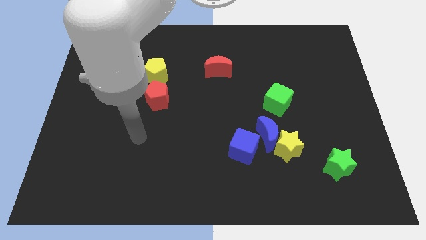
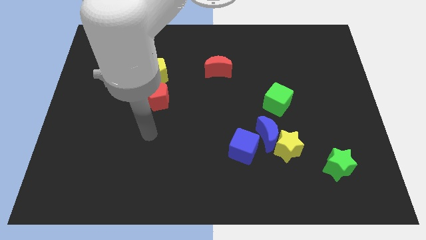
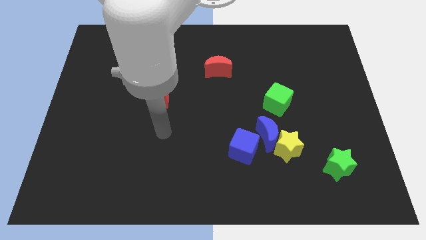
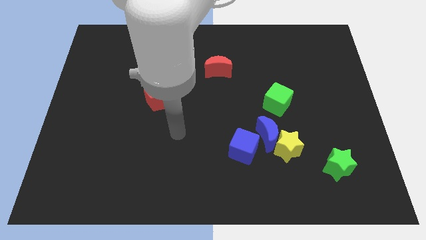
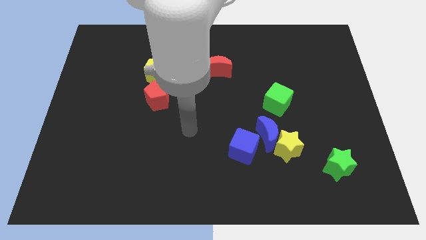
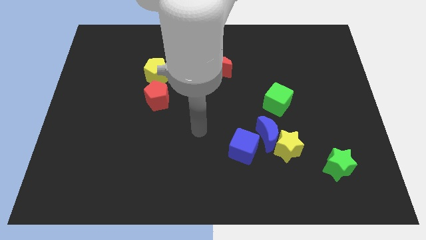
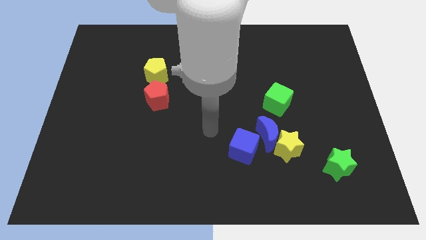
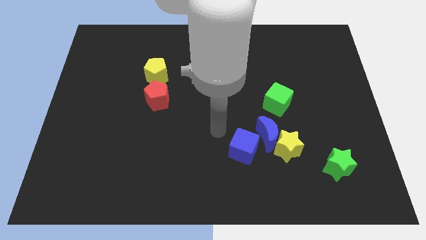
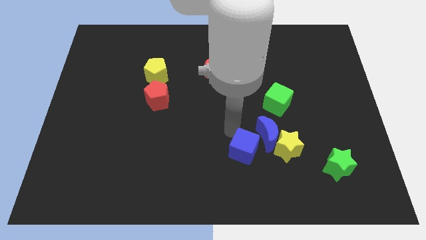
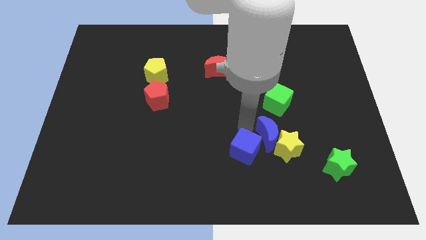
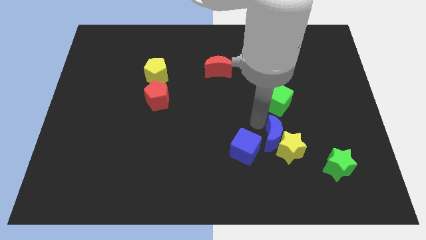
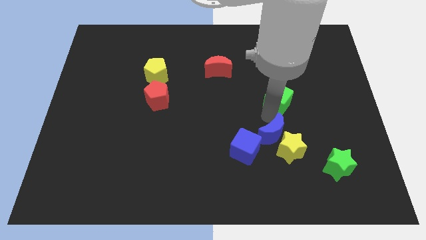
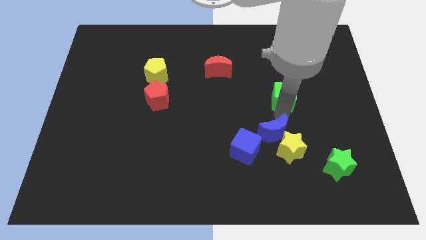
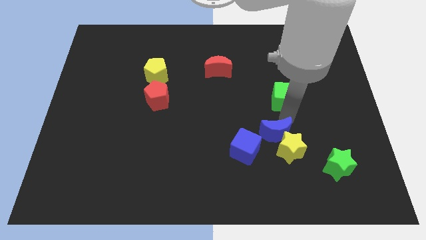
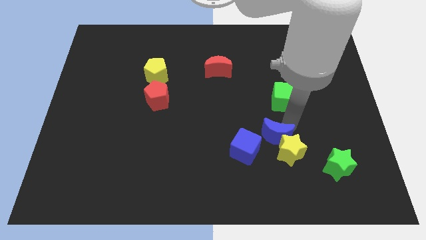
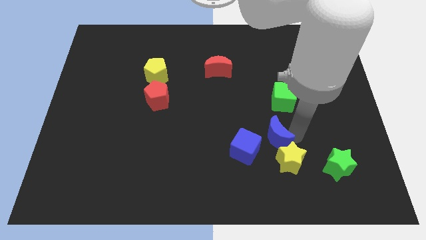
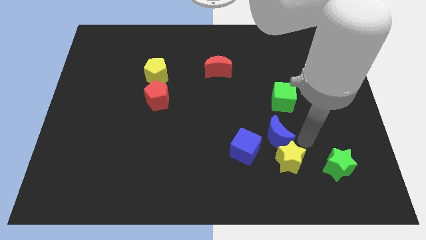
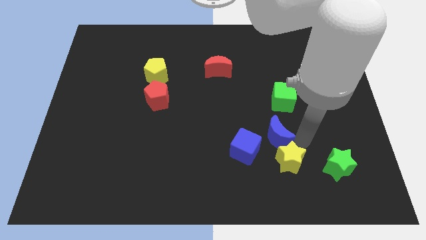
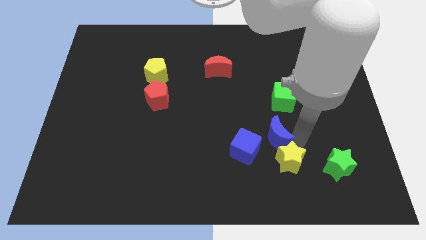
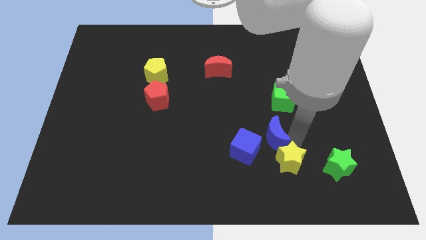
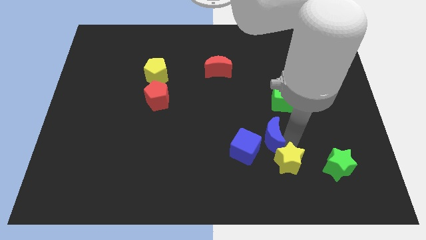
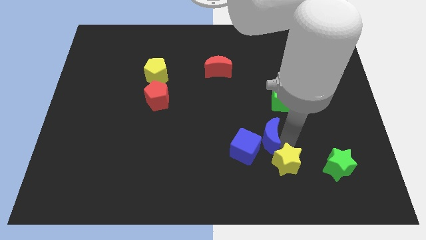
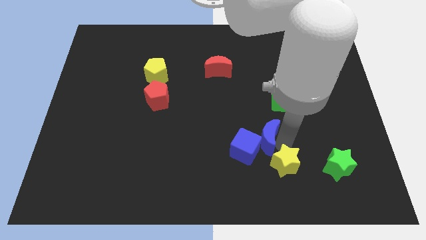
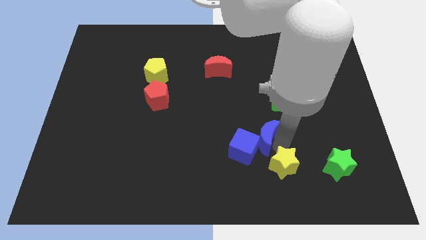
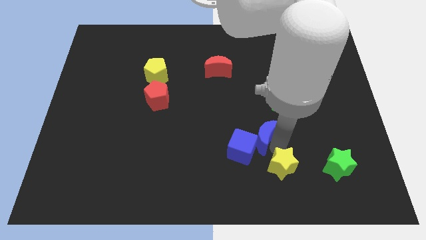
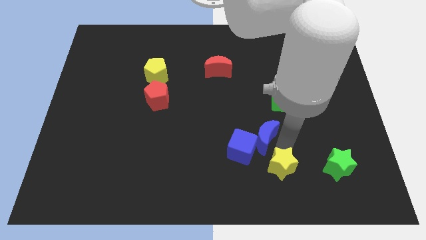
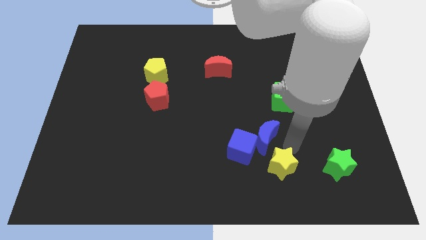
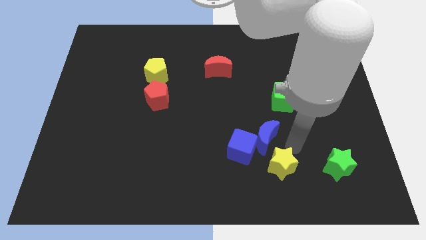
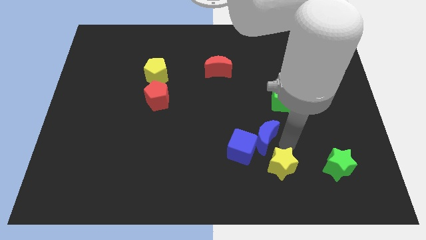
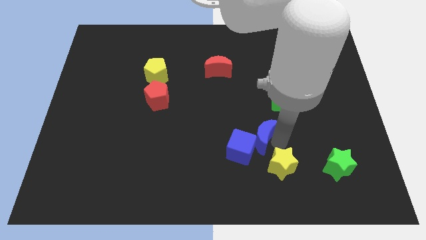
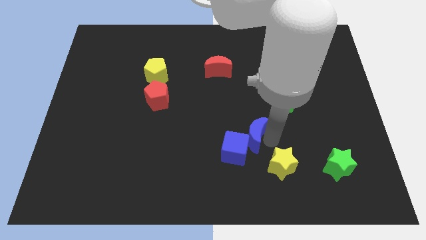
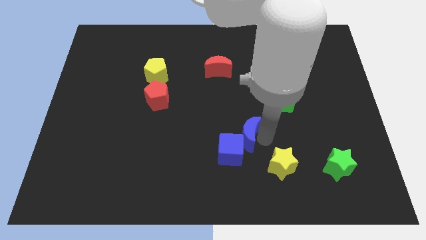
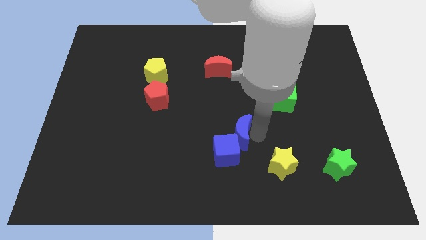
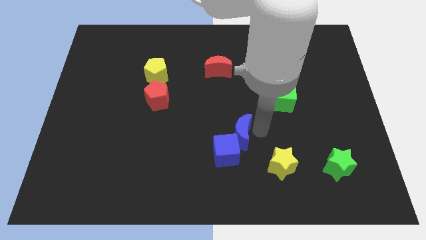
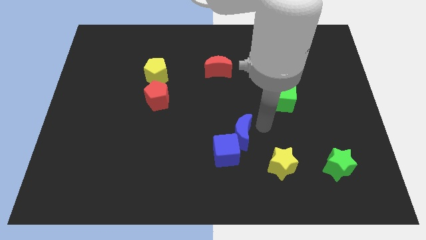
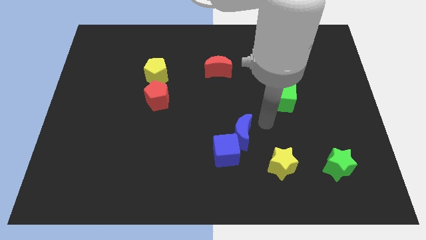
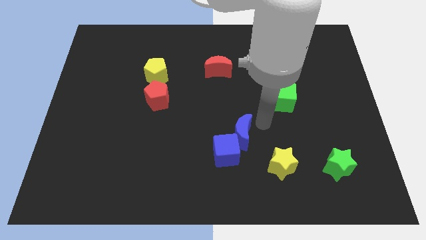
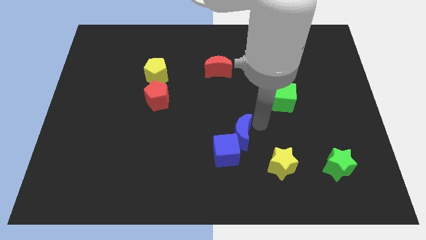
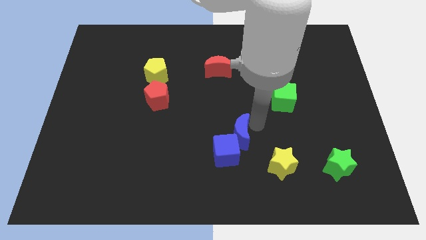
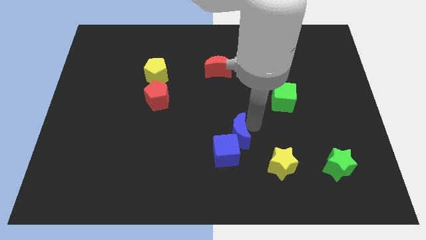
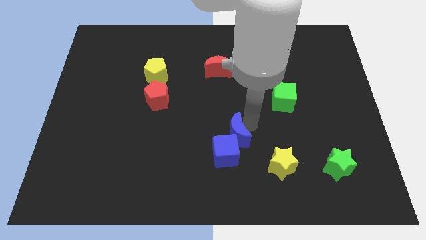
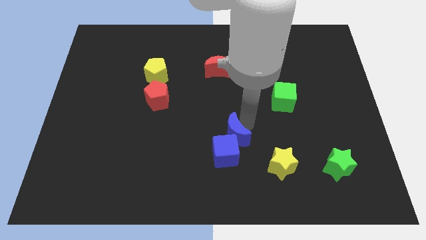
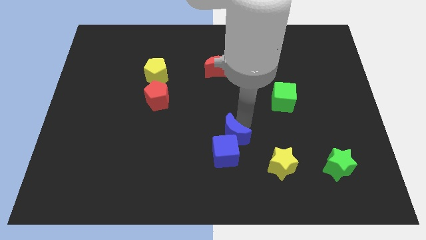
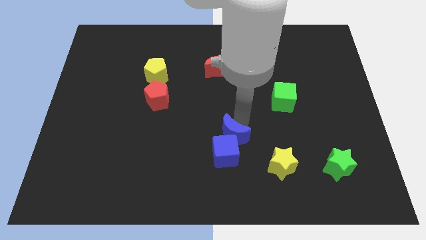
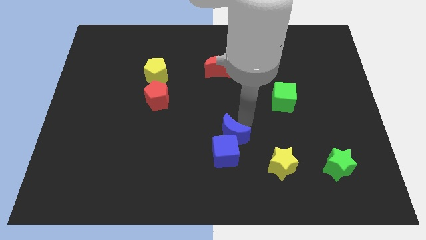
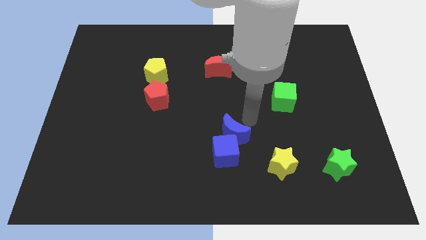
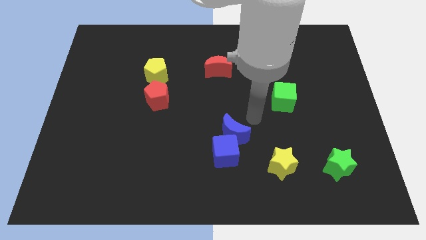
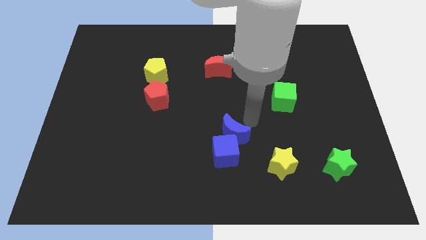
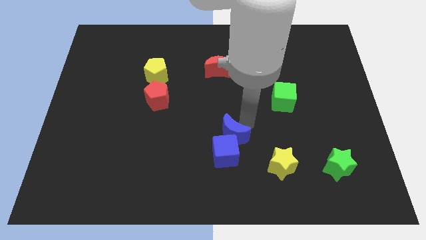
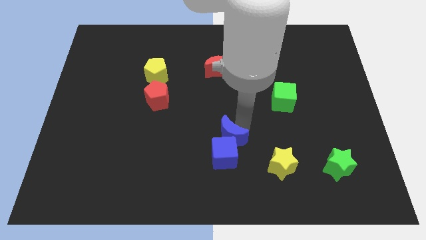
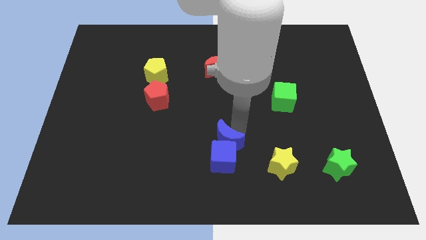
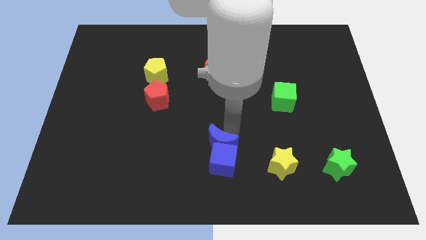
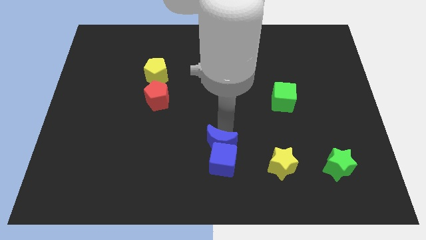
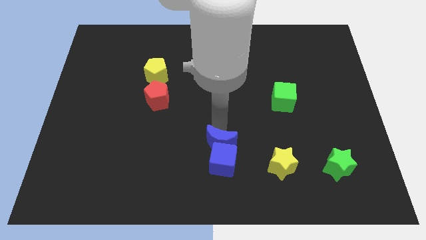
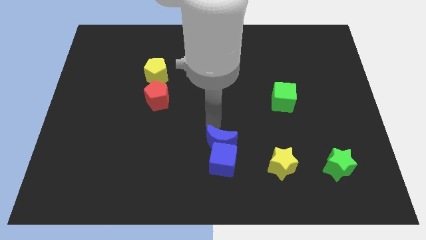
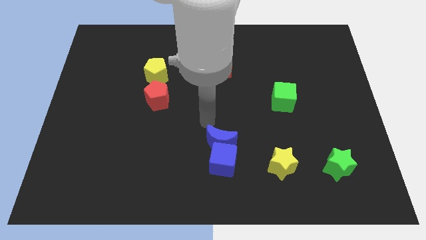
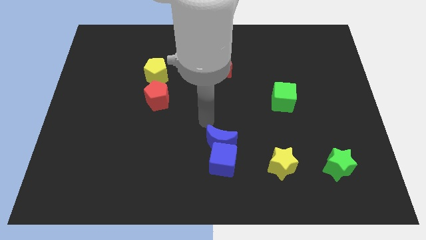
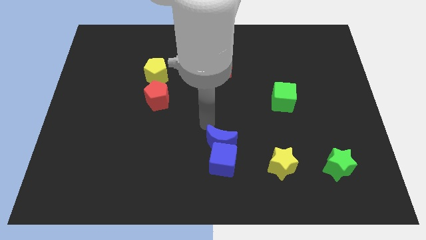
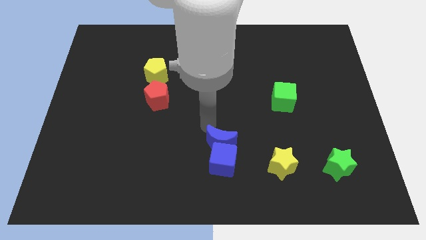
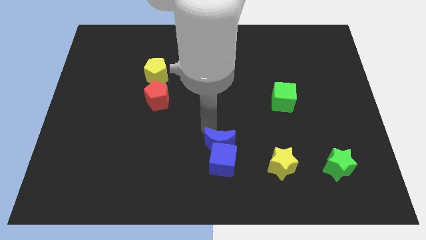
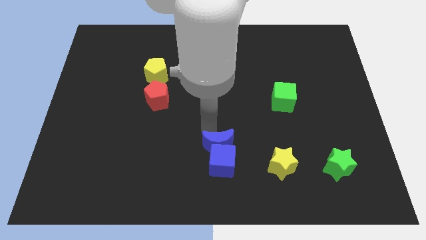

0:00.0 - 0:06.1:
separate the blue moon from the yellow star, blue cube, and green cube

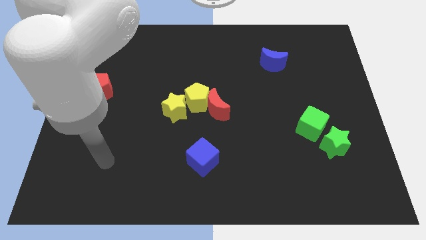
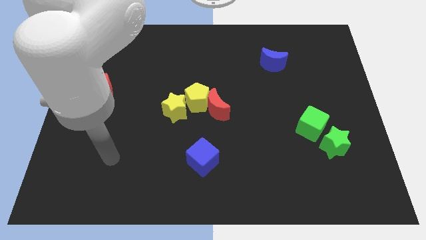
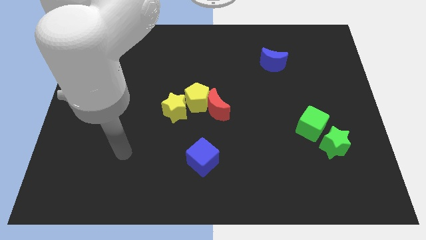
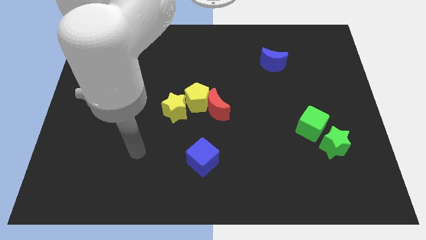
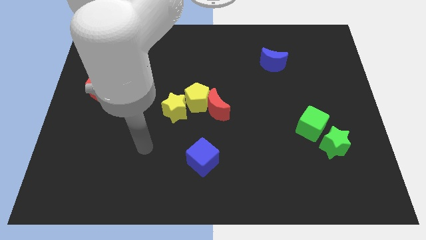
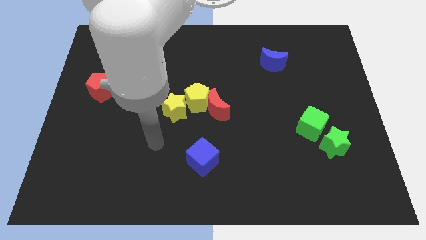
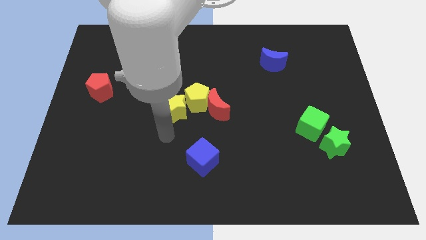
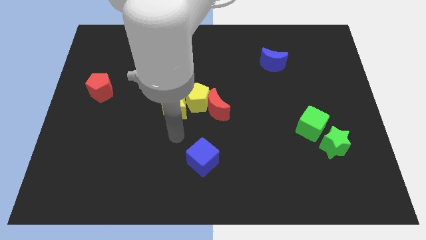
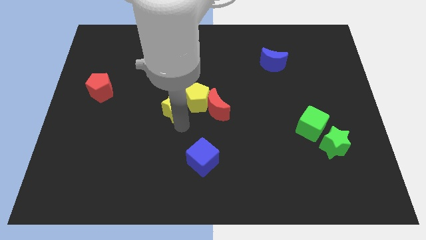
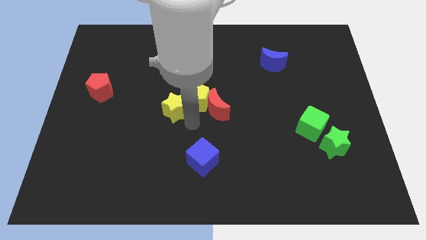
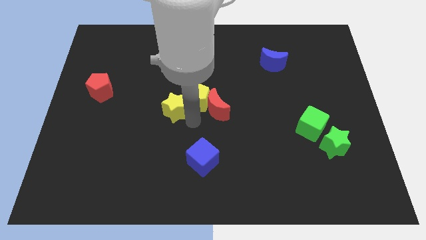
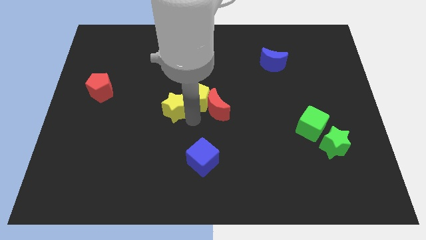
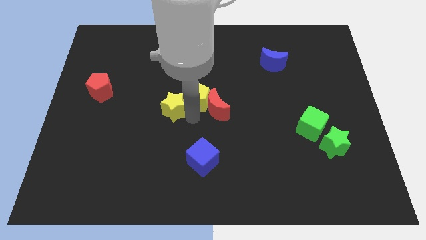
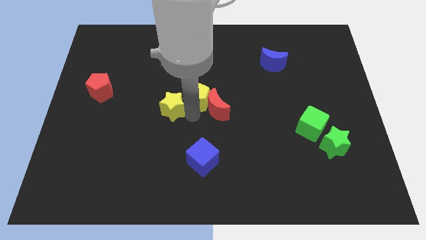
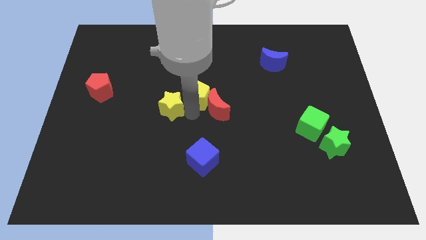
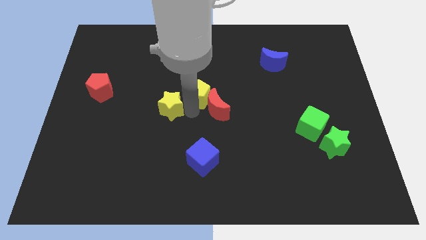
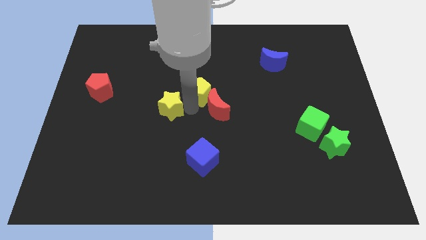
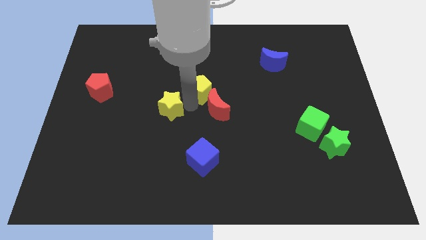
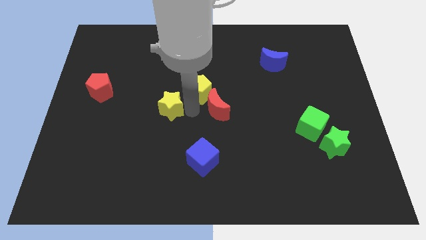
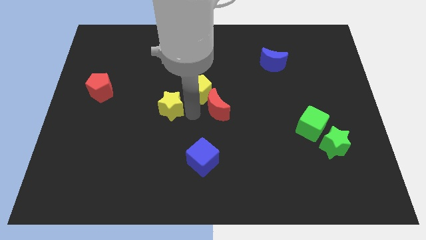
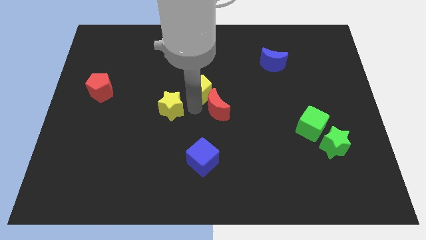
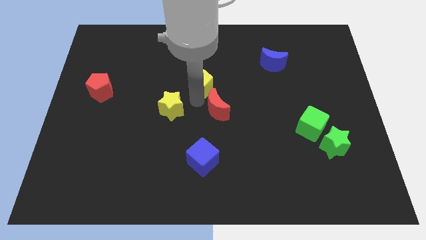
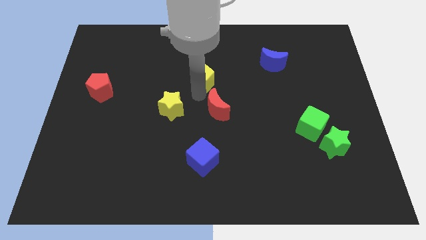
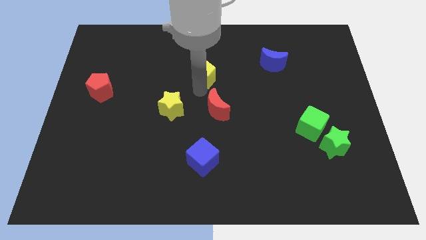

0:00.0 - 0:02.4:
pull the yellow pentagon apart from the red moon and yellow star

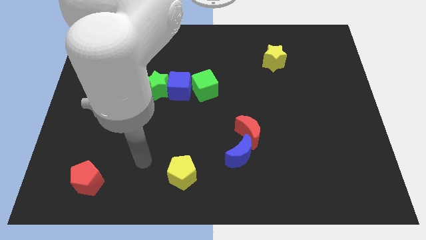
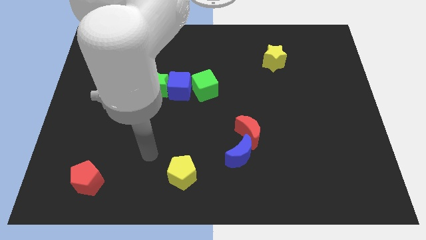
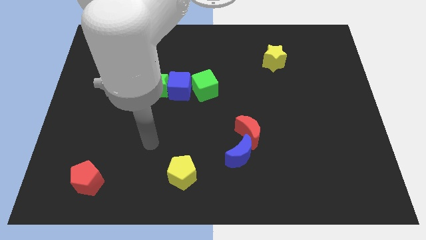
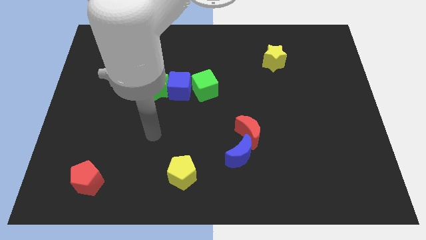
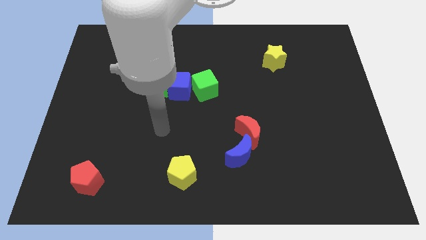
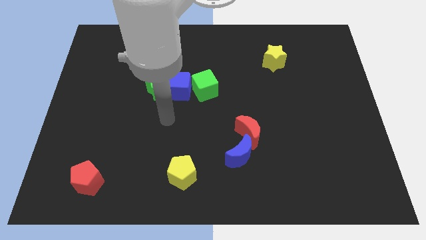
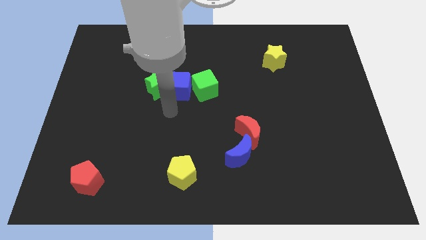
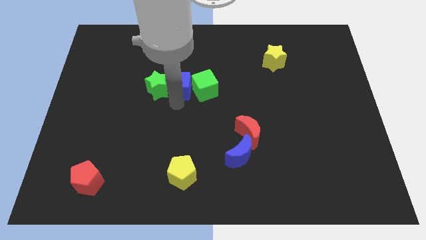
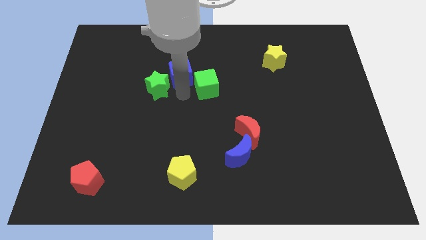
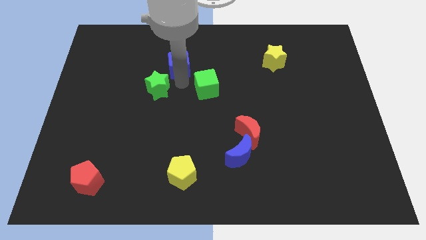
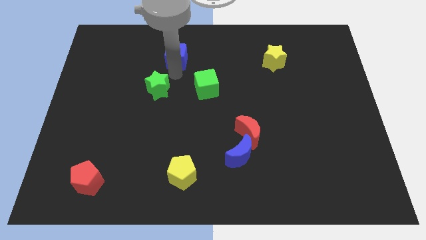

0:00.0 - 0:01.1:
move the green star away from the blue cube
